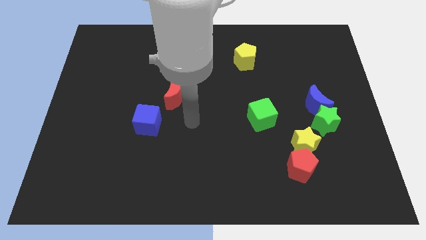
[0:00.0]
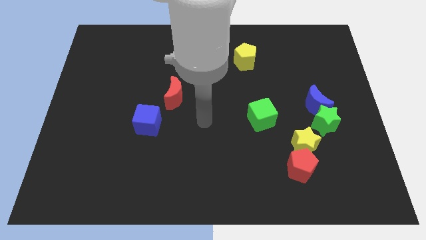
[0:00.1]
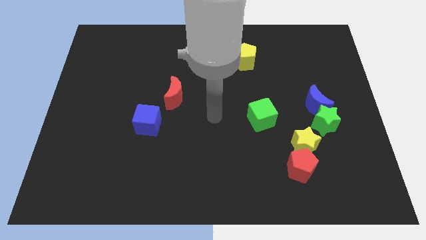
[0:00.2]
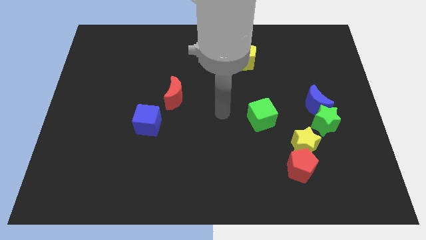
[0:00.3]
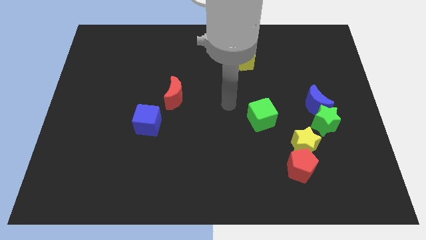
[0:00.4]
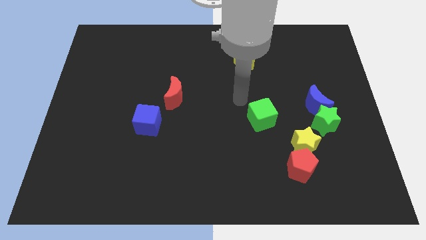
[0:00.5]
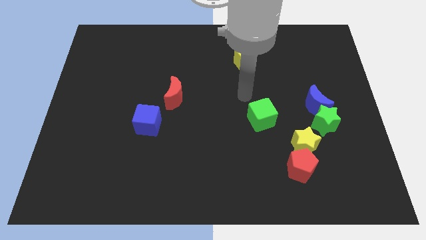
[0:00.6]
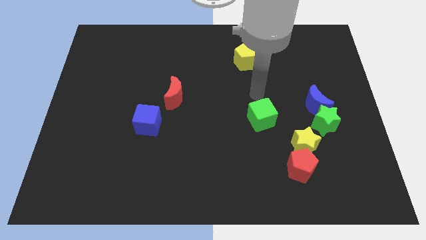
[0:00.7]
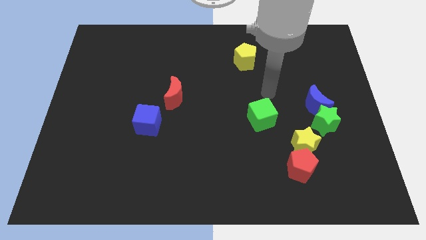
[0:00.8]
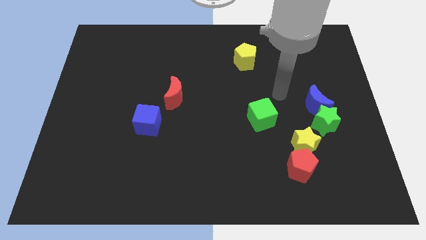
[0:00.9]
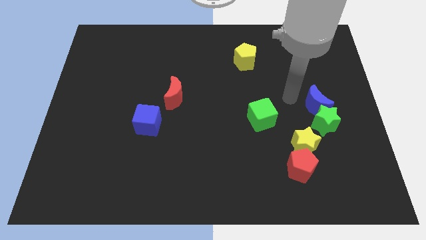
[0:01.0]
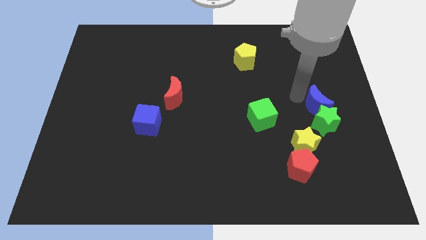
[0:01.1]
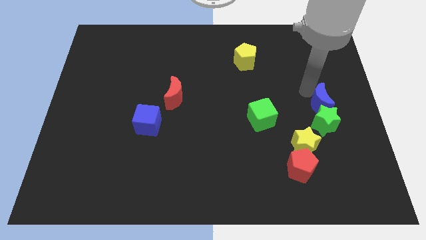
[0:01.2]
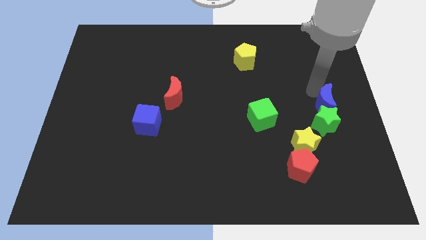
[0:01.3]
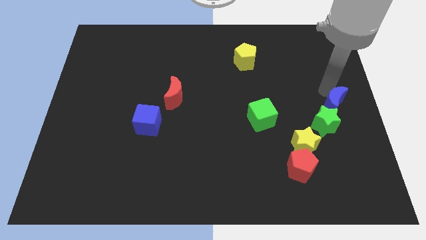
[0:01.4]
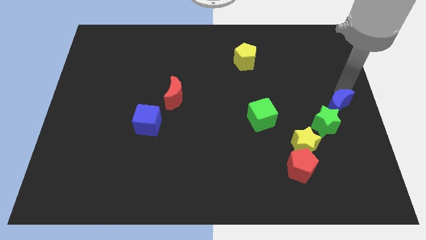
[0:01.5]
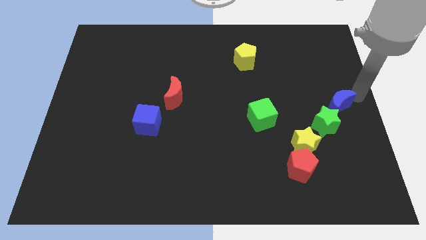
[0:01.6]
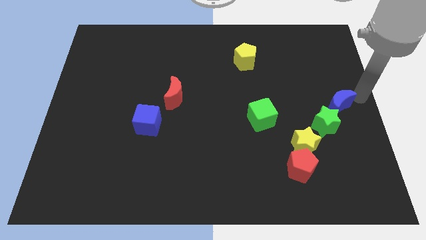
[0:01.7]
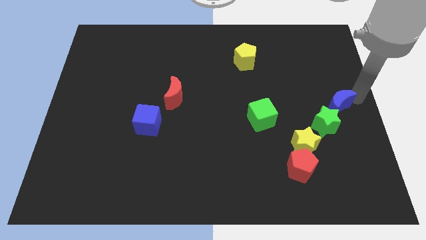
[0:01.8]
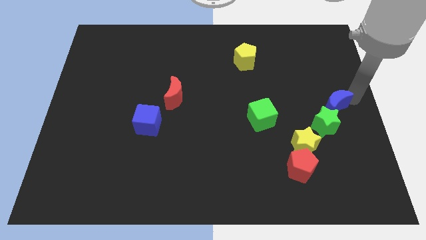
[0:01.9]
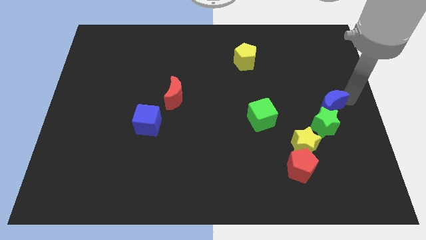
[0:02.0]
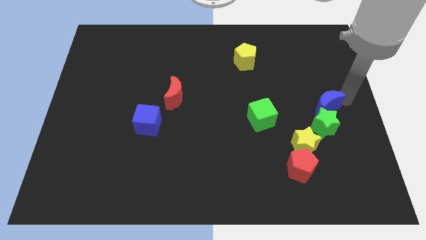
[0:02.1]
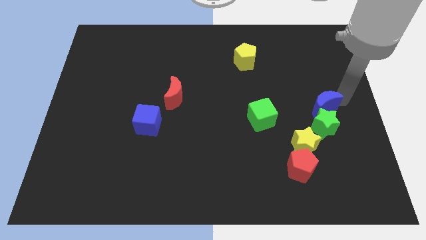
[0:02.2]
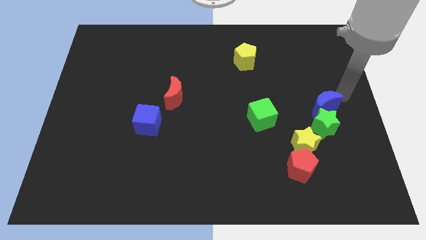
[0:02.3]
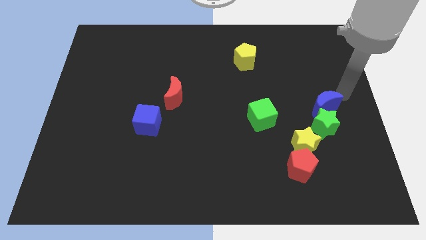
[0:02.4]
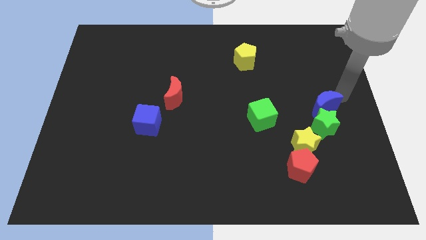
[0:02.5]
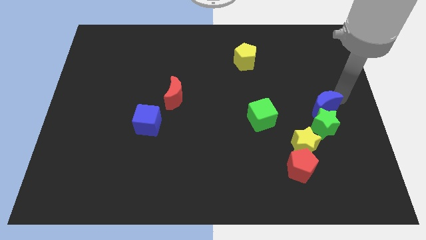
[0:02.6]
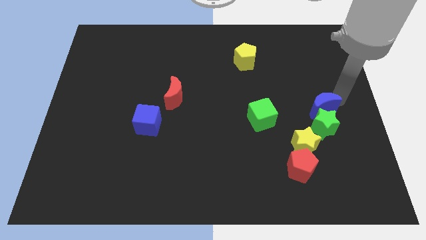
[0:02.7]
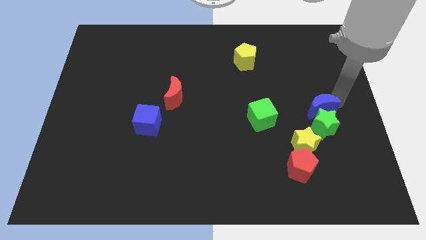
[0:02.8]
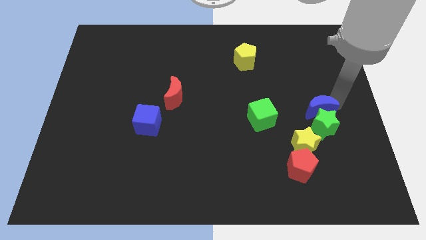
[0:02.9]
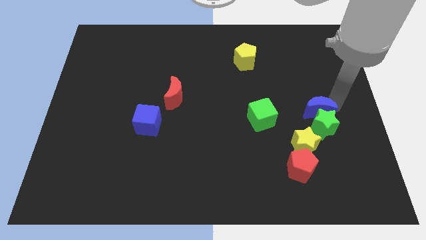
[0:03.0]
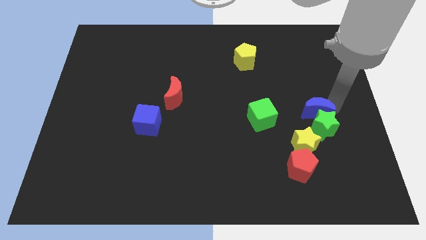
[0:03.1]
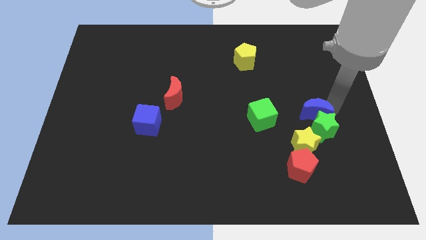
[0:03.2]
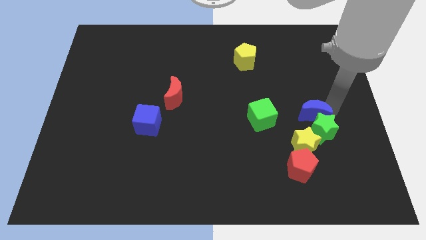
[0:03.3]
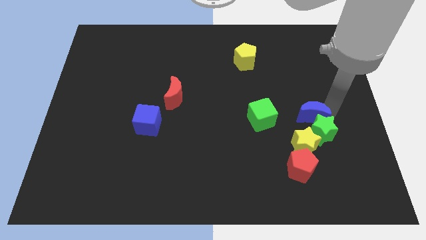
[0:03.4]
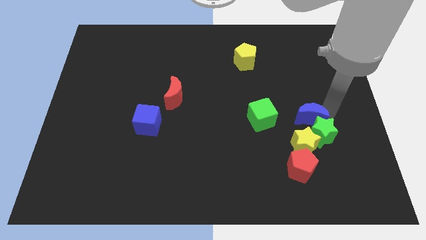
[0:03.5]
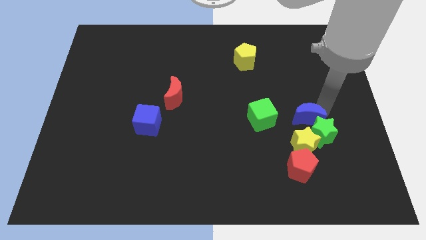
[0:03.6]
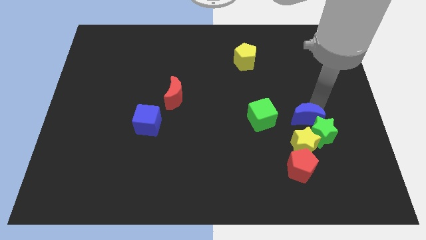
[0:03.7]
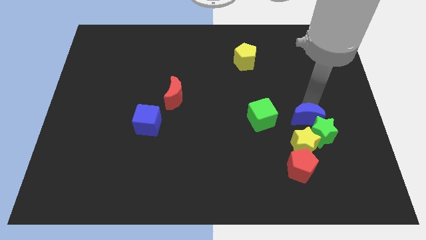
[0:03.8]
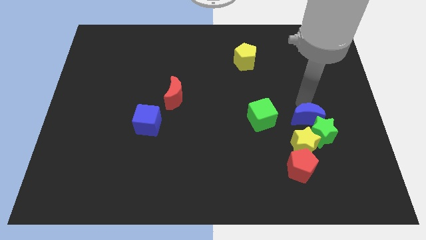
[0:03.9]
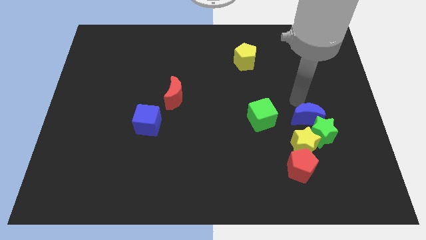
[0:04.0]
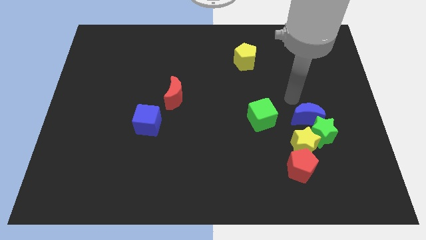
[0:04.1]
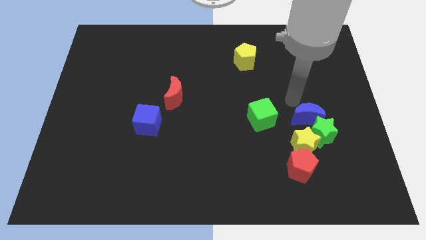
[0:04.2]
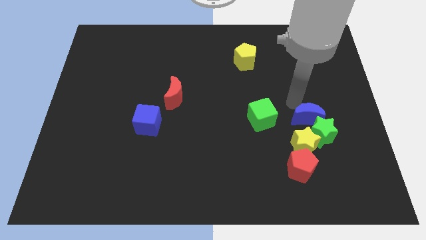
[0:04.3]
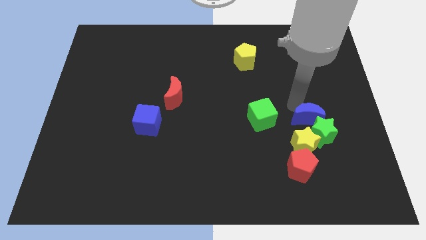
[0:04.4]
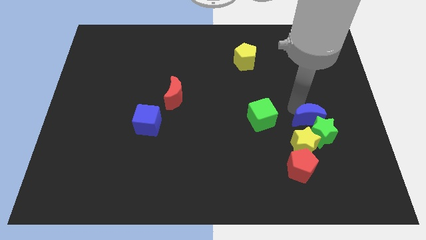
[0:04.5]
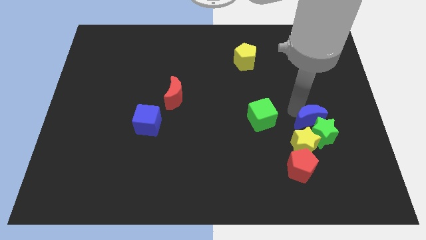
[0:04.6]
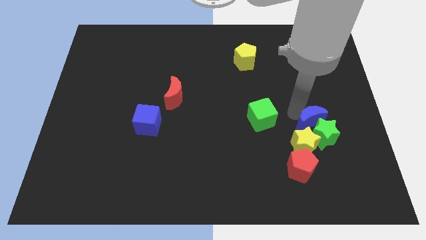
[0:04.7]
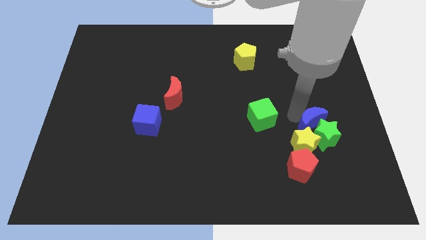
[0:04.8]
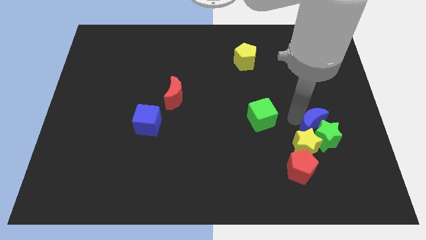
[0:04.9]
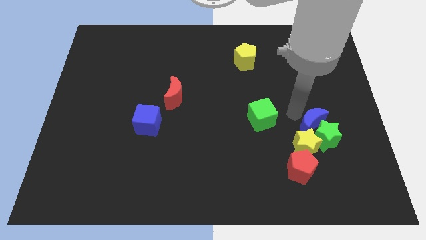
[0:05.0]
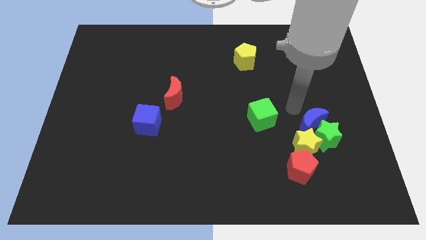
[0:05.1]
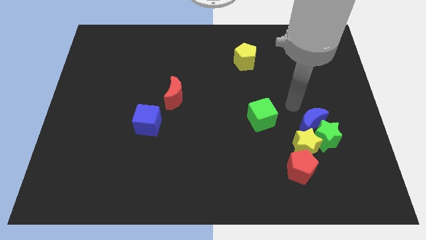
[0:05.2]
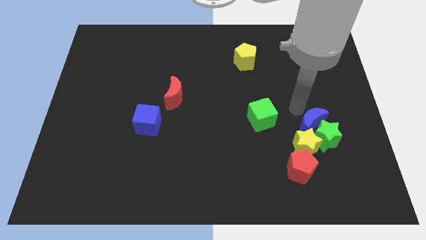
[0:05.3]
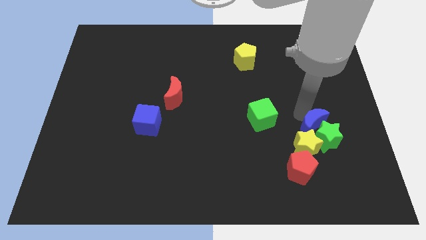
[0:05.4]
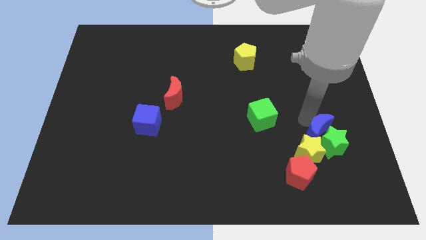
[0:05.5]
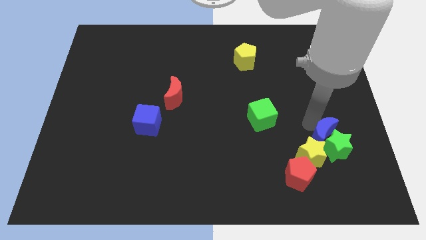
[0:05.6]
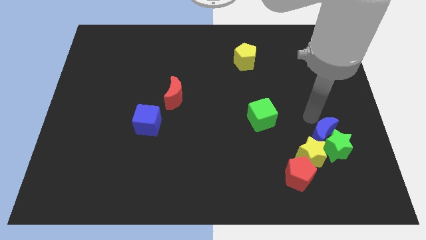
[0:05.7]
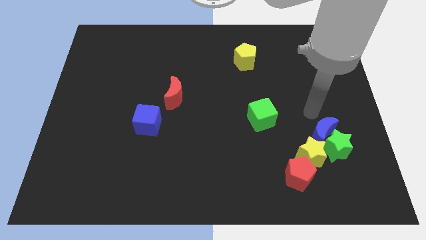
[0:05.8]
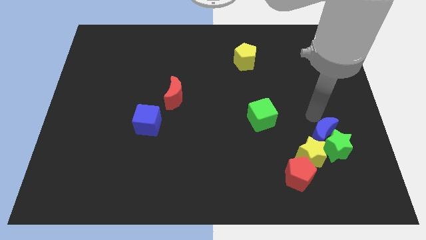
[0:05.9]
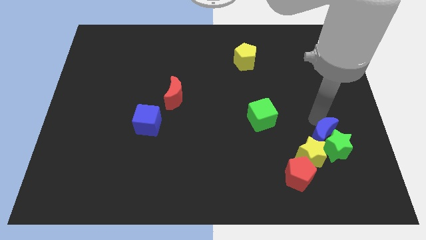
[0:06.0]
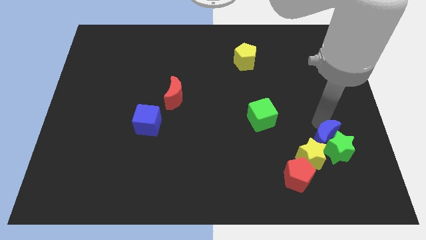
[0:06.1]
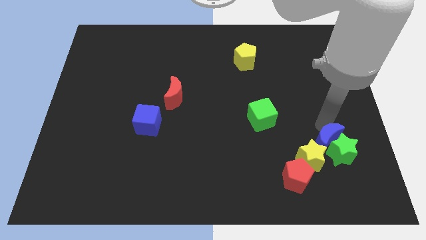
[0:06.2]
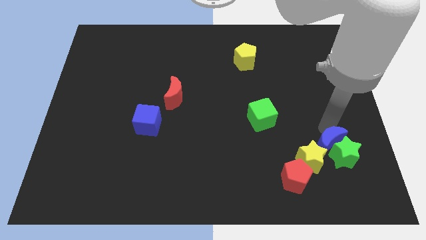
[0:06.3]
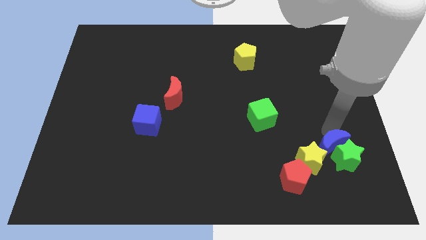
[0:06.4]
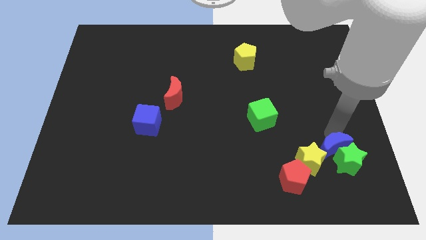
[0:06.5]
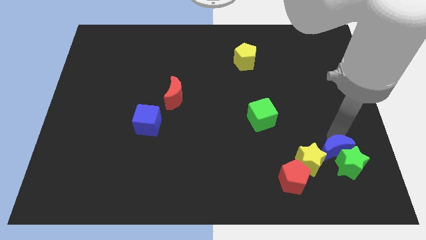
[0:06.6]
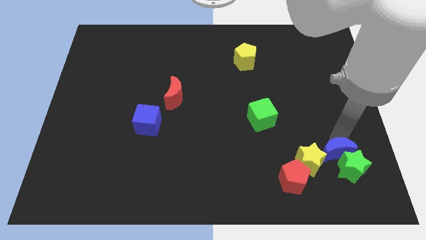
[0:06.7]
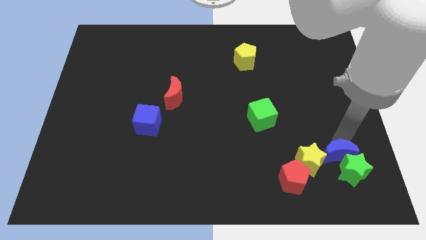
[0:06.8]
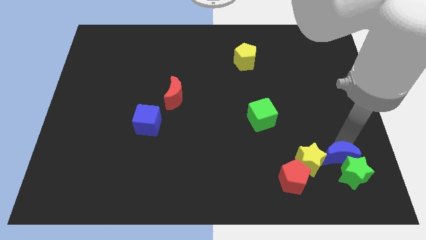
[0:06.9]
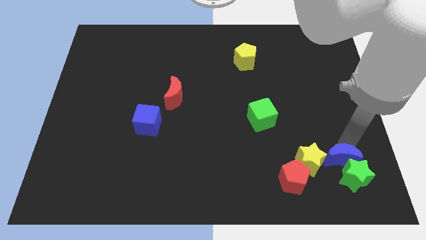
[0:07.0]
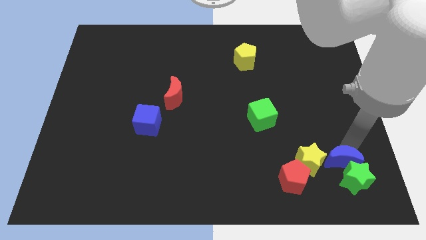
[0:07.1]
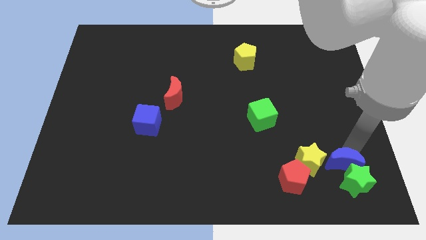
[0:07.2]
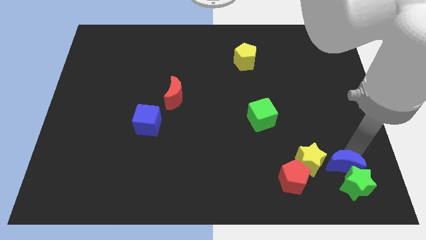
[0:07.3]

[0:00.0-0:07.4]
put the blue moon to the bottom right side of the yellow star
